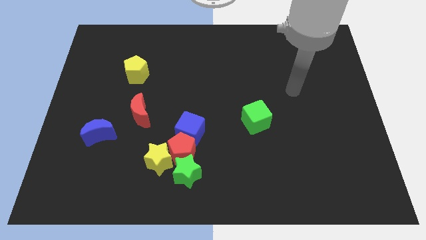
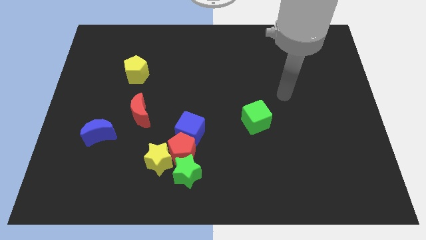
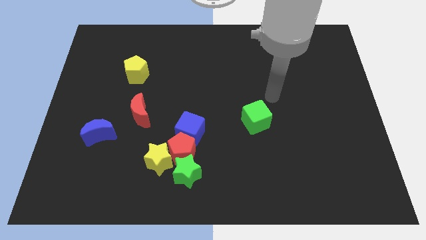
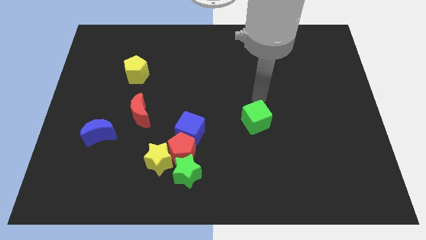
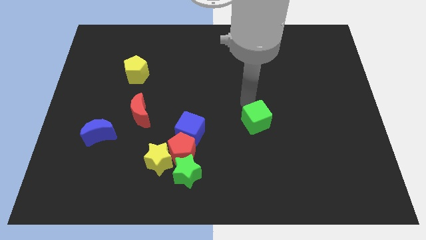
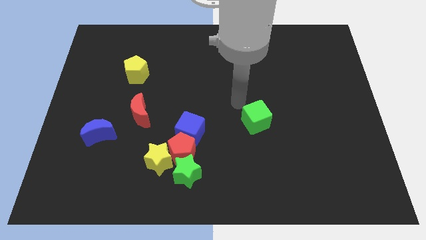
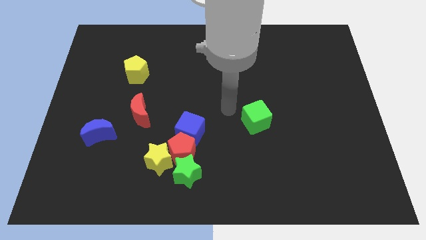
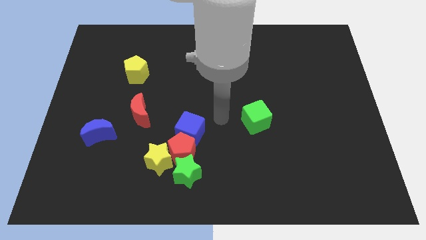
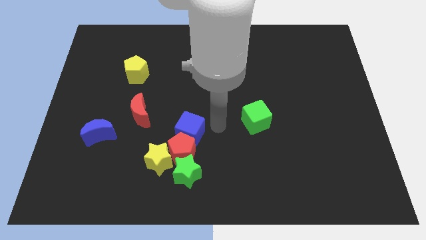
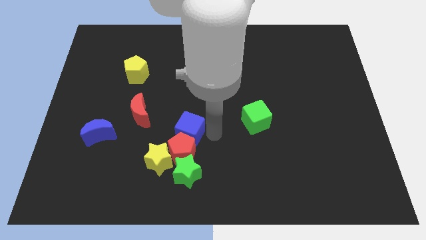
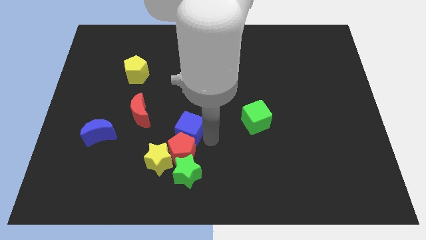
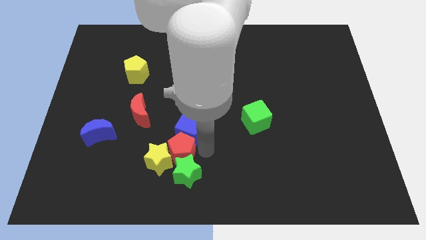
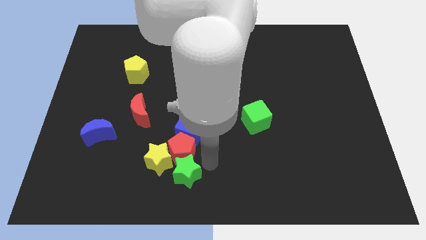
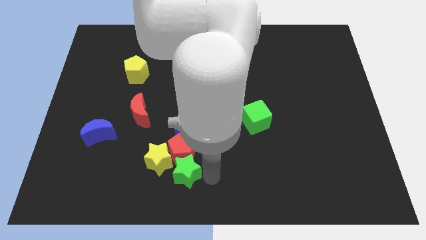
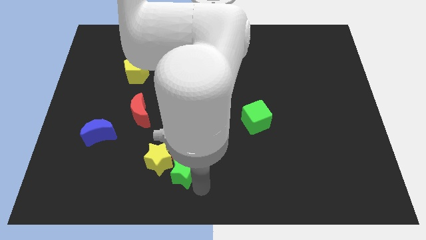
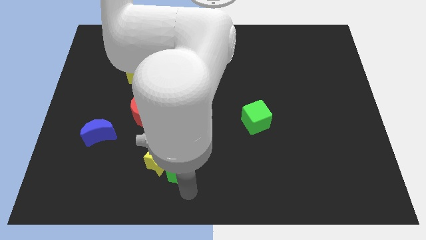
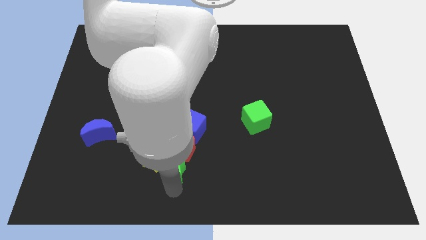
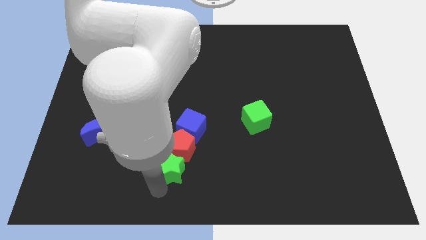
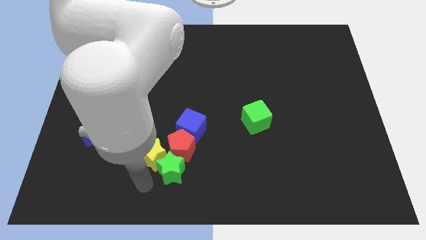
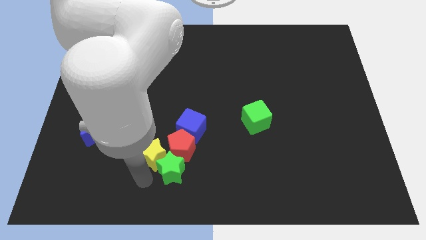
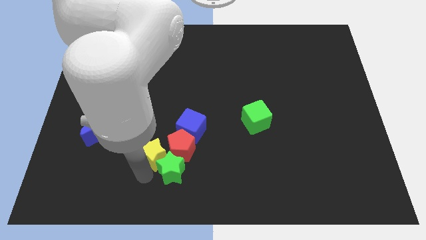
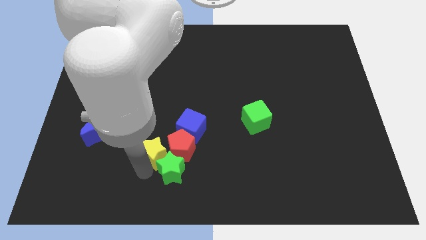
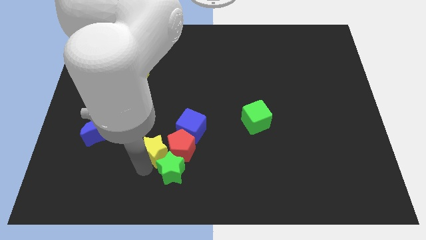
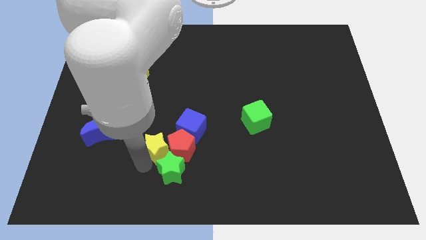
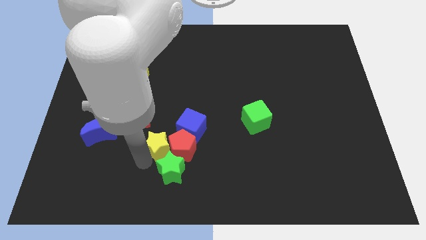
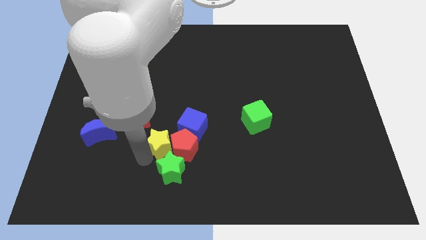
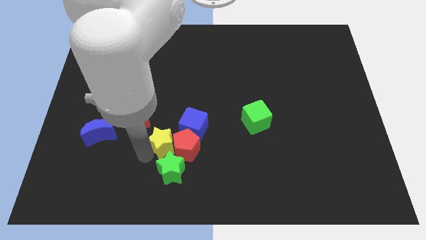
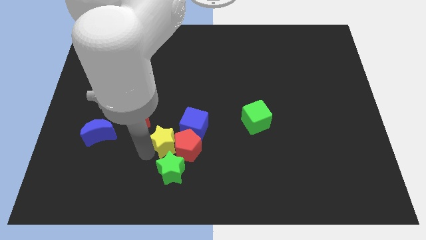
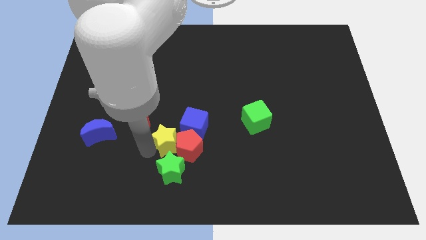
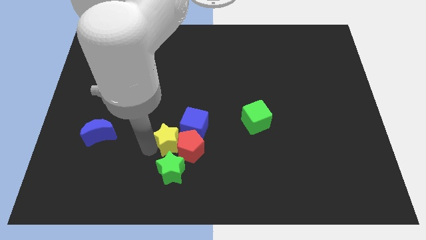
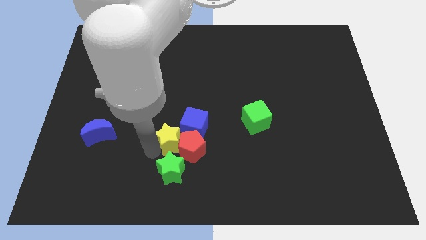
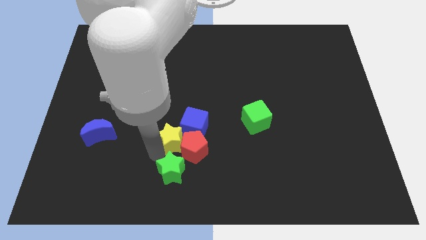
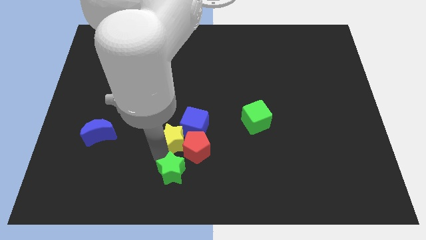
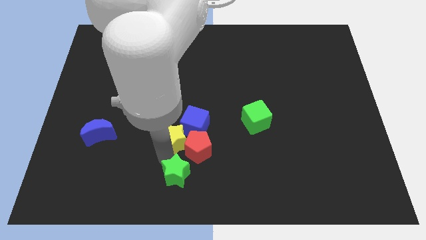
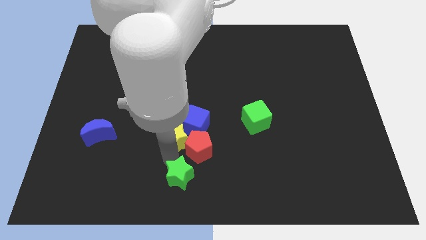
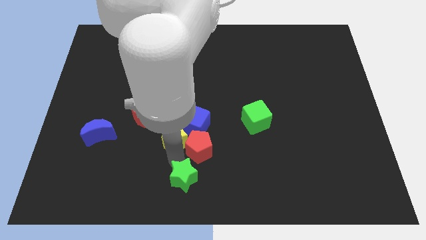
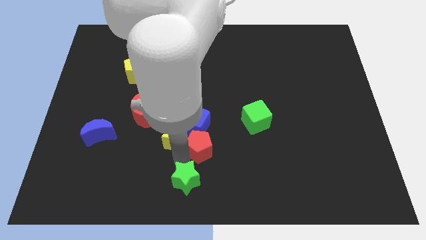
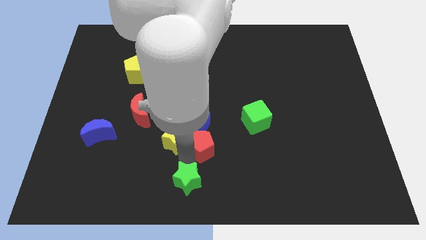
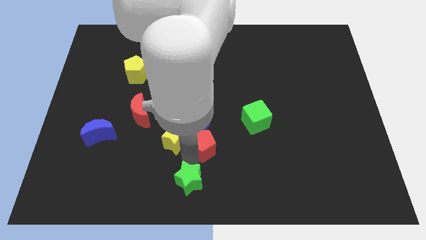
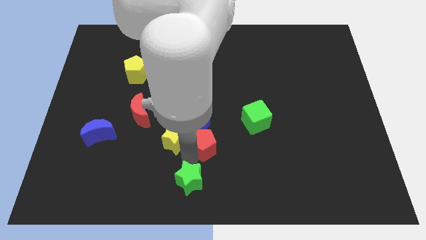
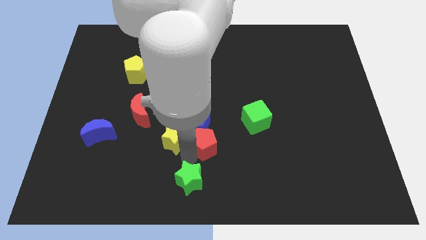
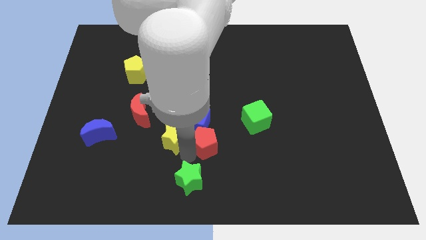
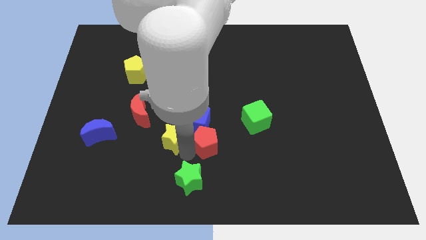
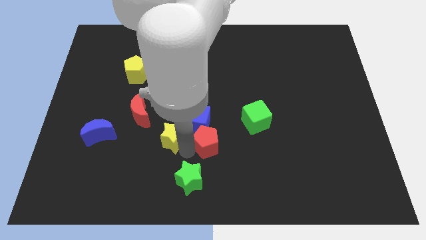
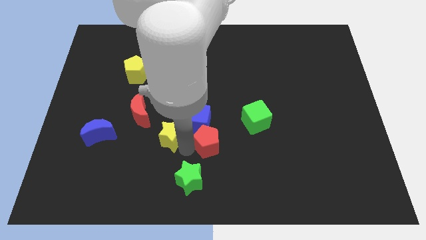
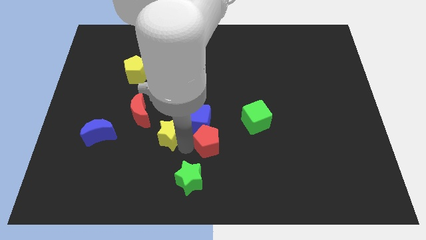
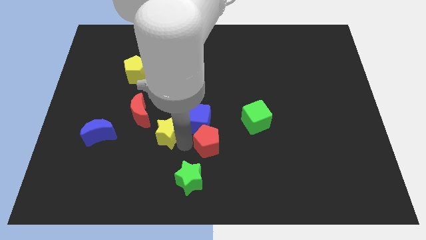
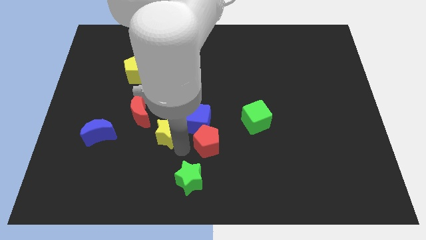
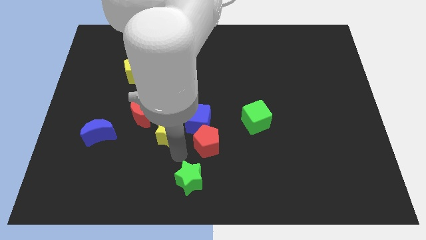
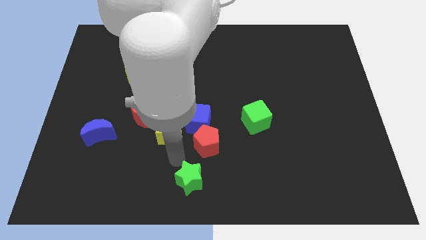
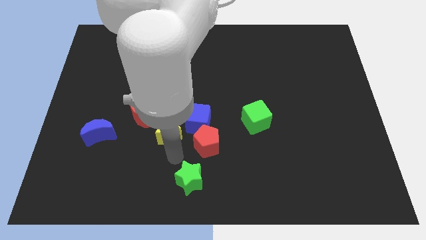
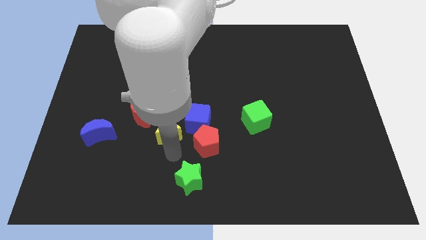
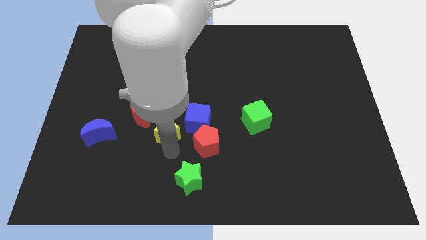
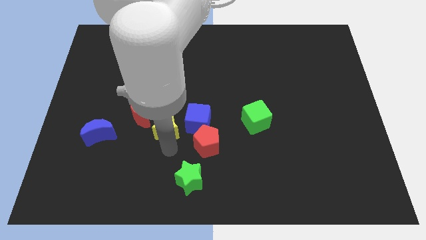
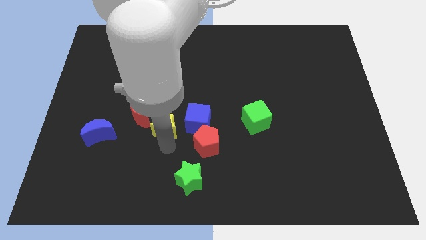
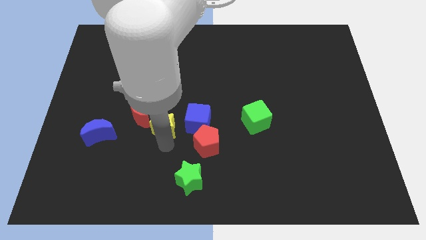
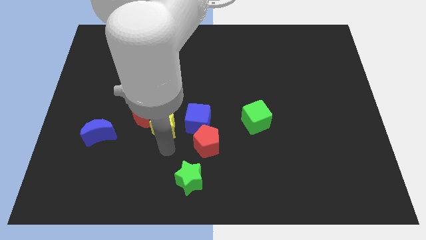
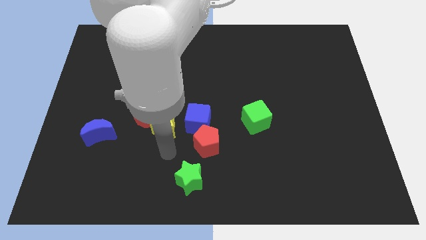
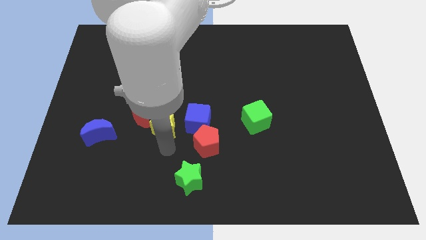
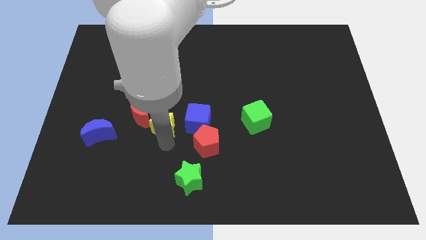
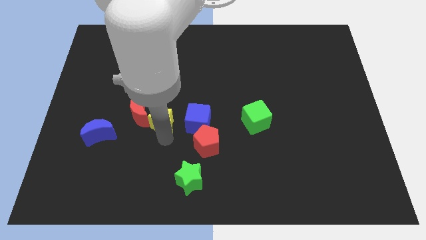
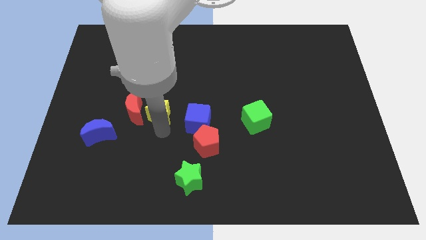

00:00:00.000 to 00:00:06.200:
move the yellow star to the top right side of the red moon
